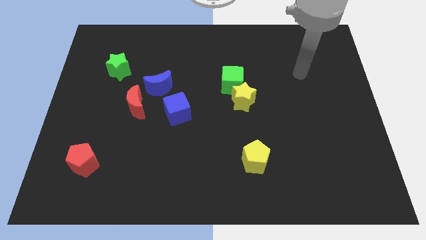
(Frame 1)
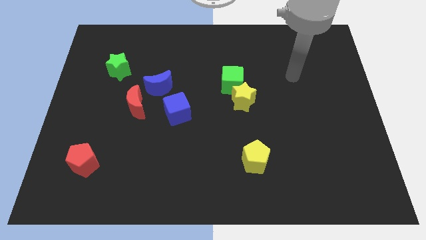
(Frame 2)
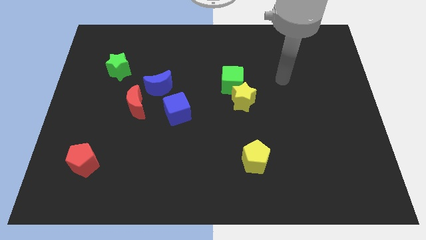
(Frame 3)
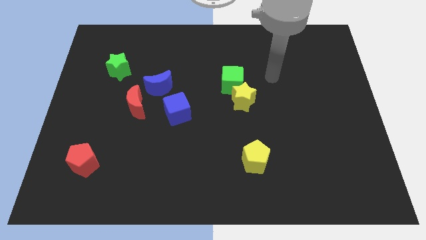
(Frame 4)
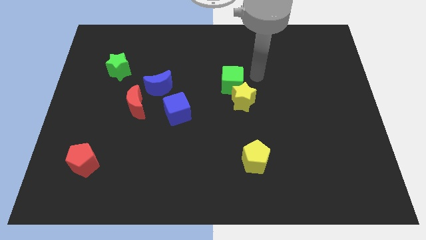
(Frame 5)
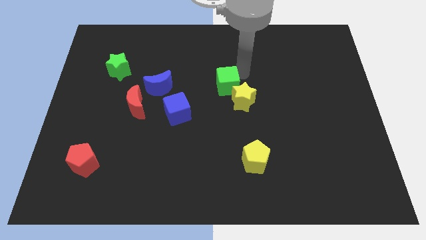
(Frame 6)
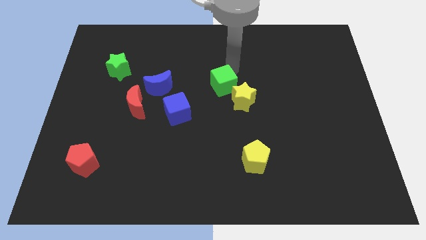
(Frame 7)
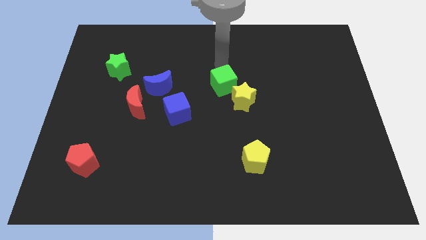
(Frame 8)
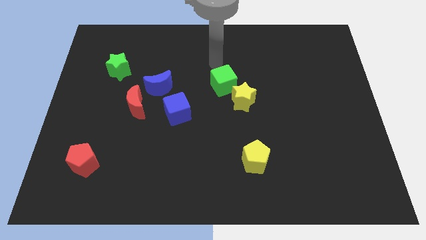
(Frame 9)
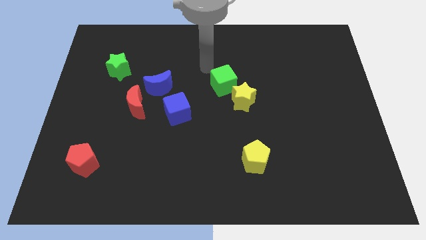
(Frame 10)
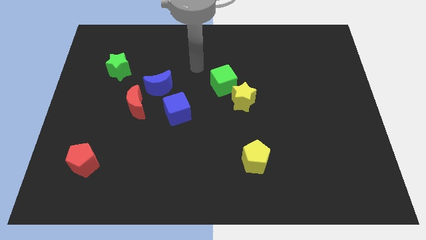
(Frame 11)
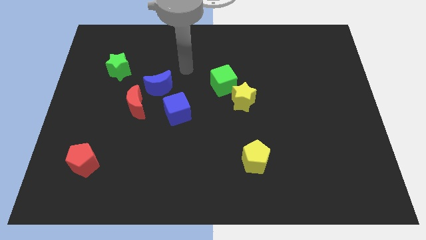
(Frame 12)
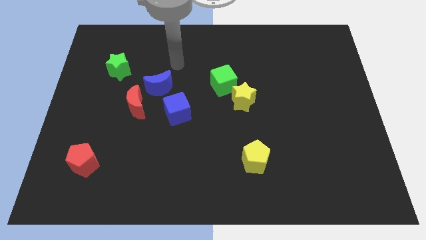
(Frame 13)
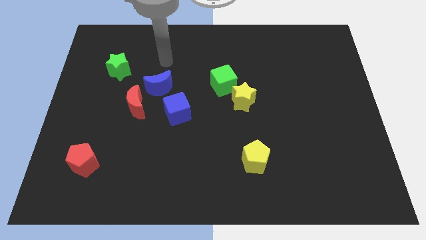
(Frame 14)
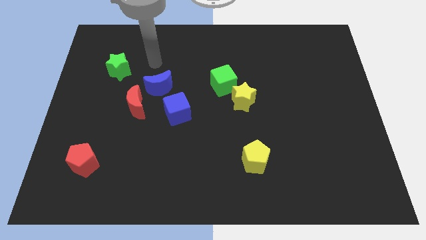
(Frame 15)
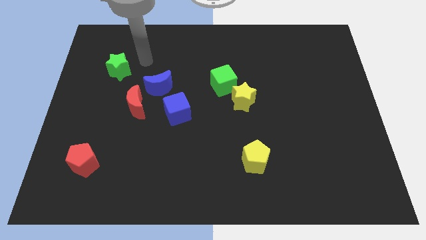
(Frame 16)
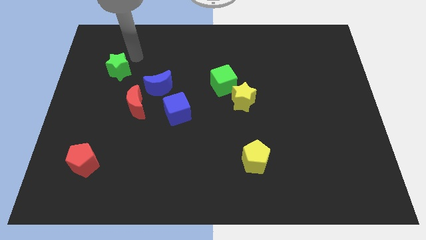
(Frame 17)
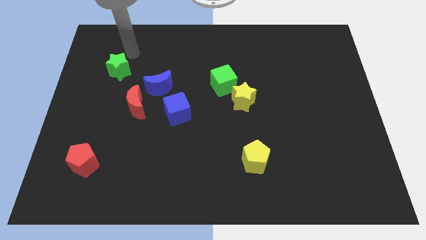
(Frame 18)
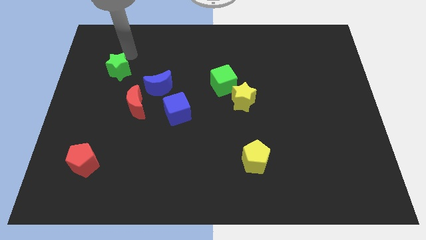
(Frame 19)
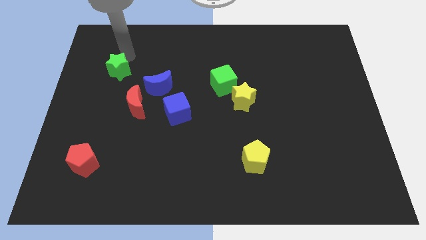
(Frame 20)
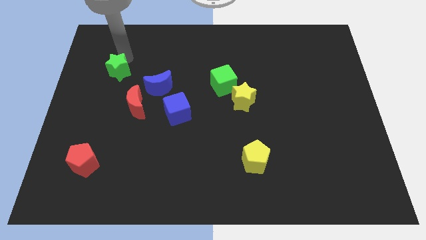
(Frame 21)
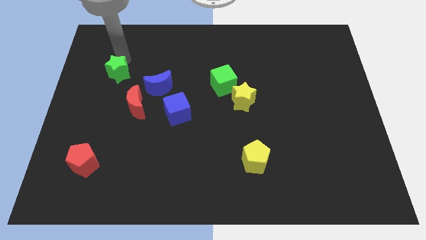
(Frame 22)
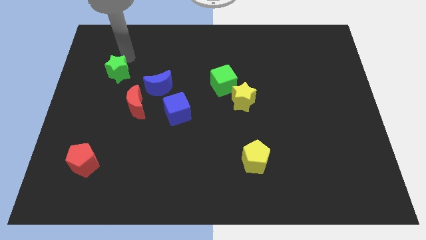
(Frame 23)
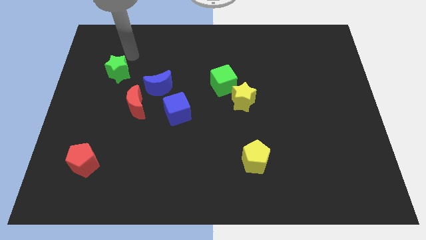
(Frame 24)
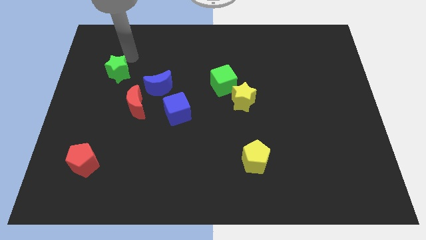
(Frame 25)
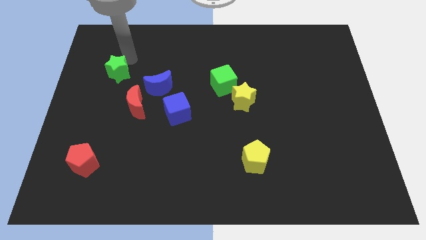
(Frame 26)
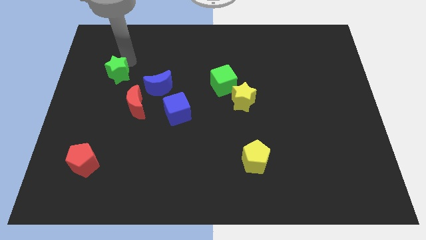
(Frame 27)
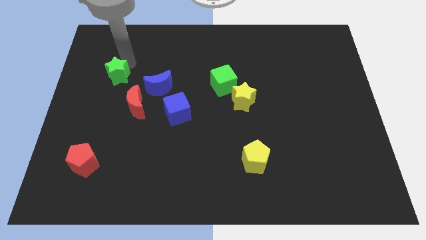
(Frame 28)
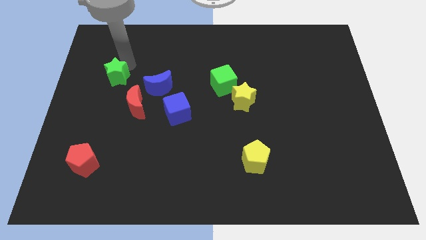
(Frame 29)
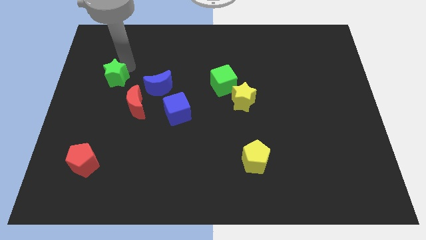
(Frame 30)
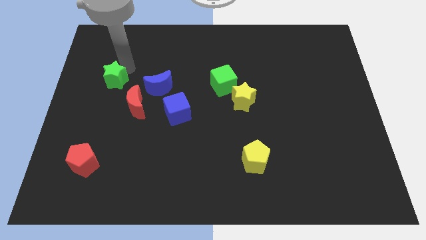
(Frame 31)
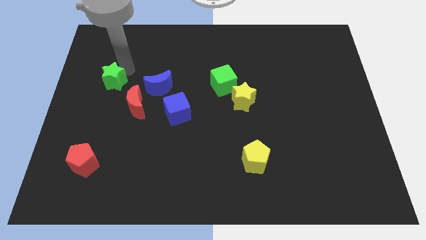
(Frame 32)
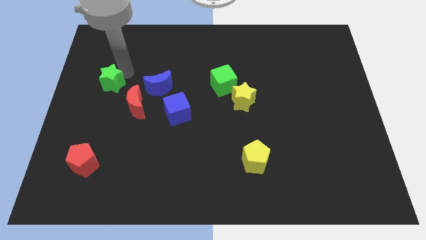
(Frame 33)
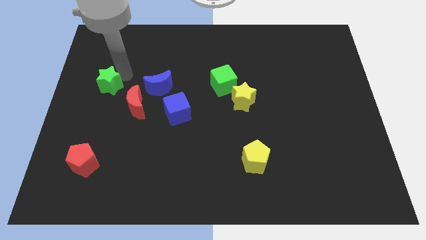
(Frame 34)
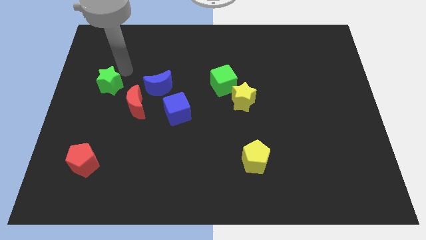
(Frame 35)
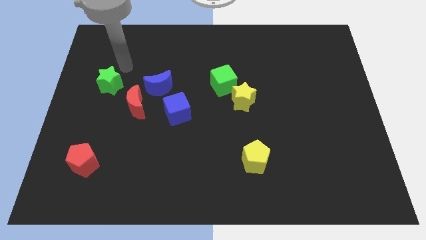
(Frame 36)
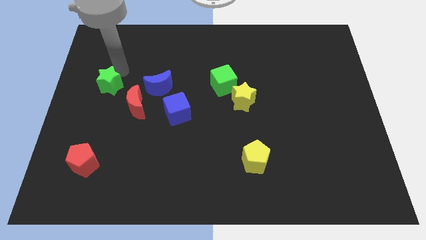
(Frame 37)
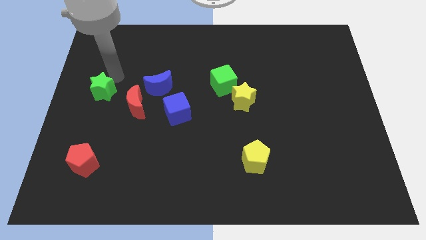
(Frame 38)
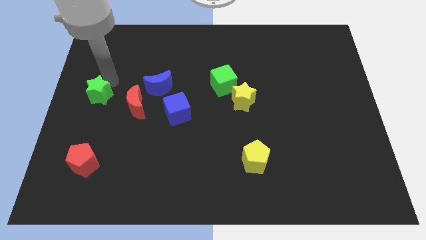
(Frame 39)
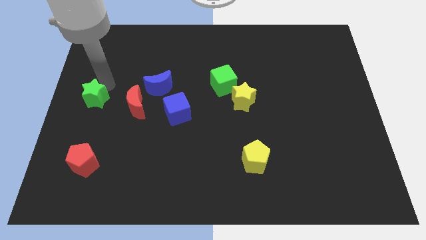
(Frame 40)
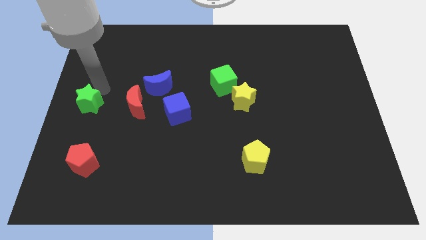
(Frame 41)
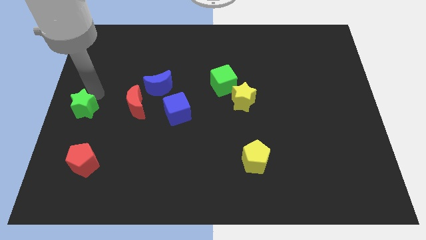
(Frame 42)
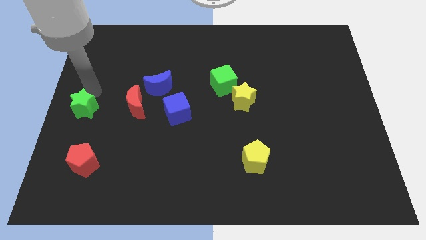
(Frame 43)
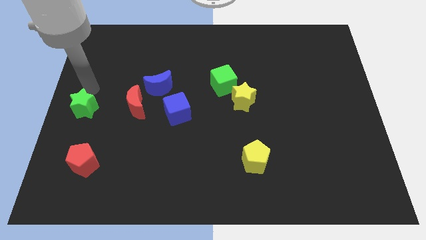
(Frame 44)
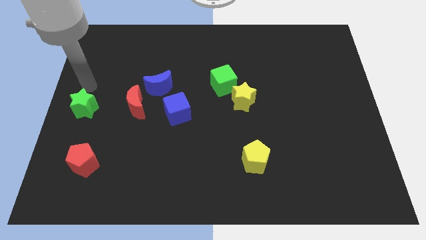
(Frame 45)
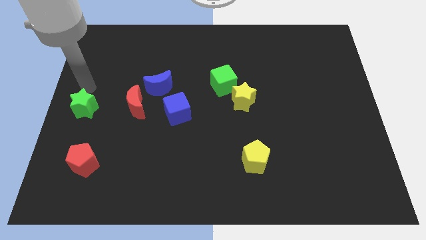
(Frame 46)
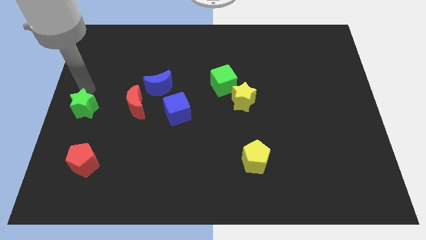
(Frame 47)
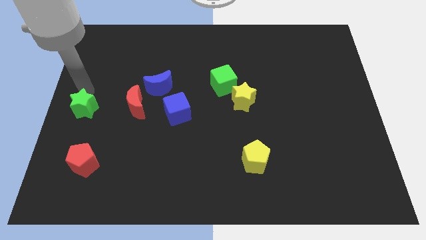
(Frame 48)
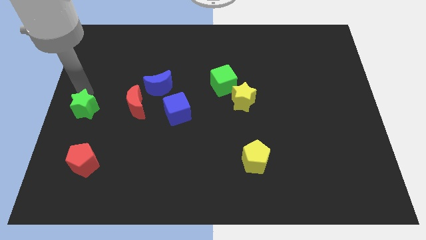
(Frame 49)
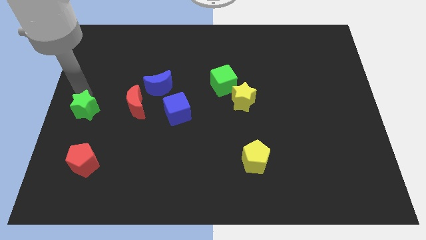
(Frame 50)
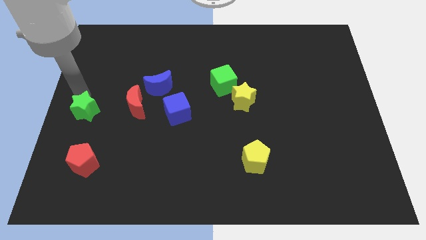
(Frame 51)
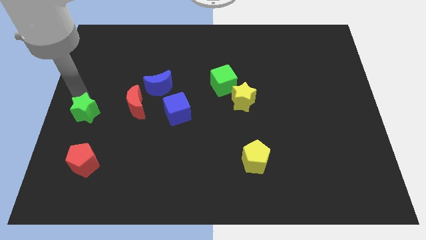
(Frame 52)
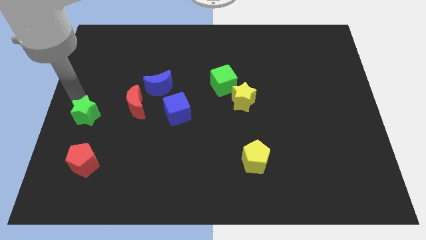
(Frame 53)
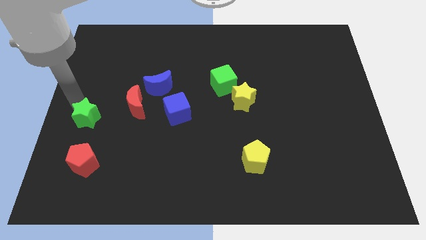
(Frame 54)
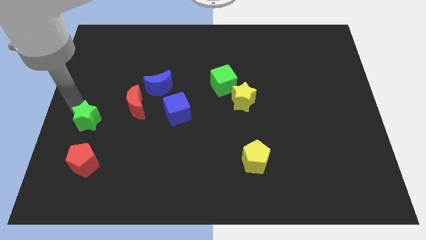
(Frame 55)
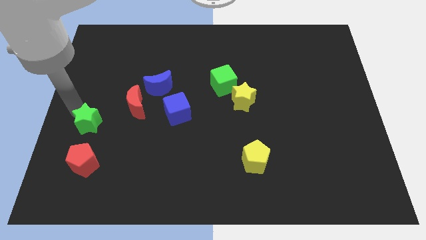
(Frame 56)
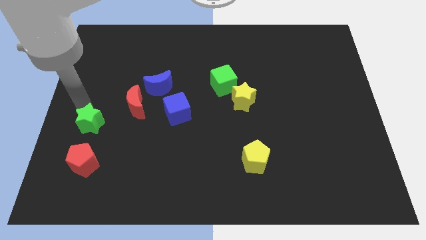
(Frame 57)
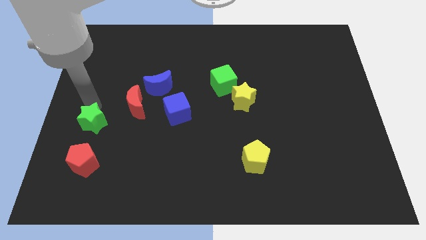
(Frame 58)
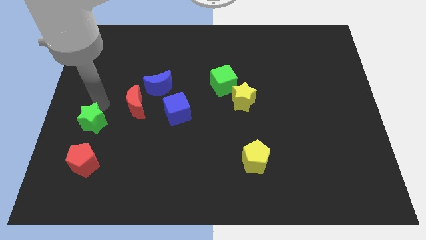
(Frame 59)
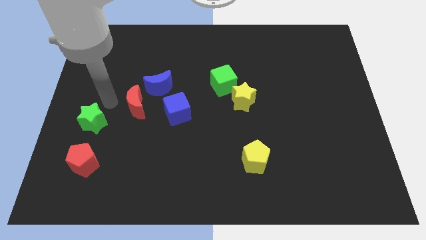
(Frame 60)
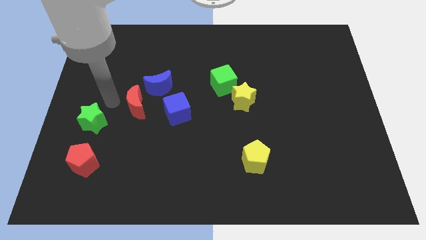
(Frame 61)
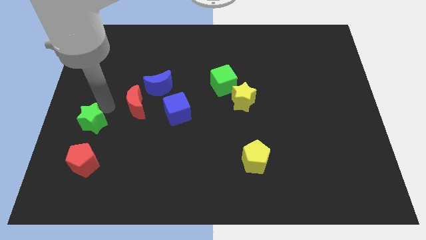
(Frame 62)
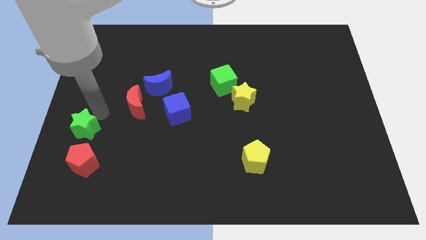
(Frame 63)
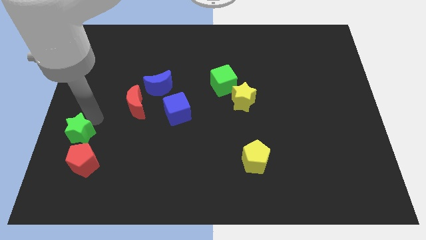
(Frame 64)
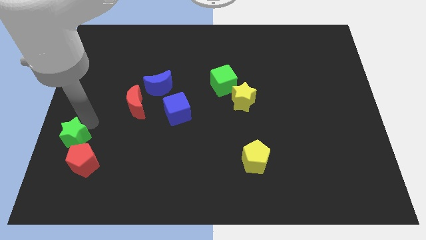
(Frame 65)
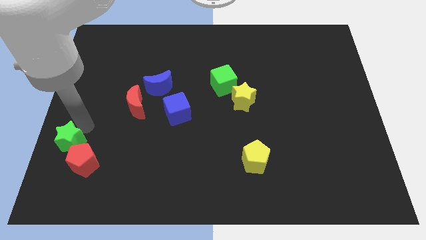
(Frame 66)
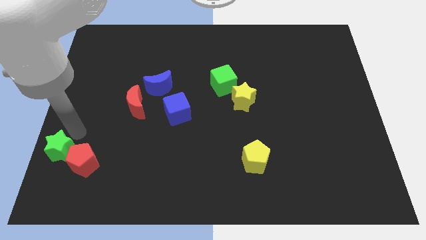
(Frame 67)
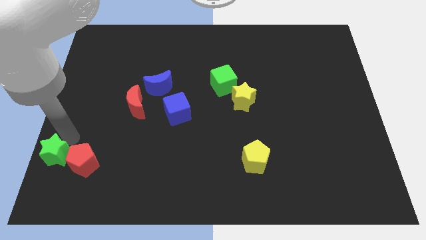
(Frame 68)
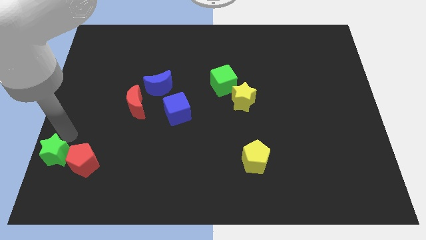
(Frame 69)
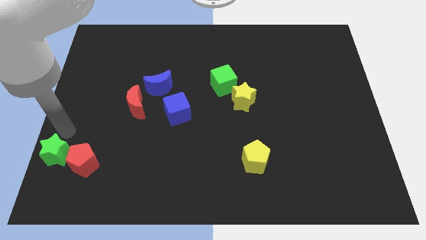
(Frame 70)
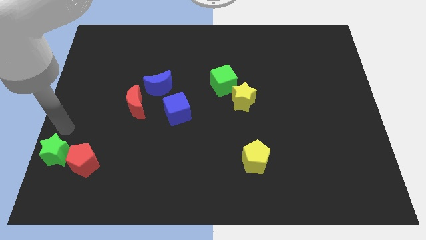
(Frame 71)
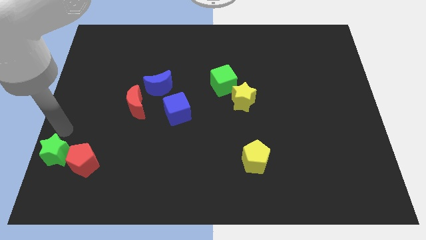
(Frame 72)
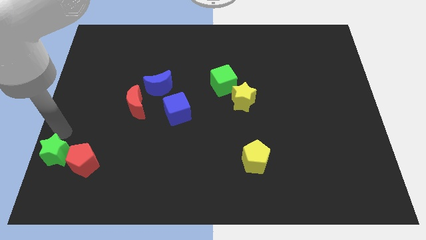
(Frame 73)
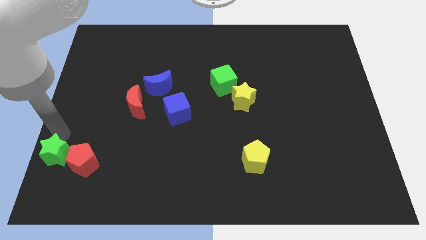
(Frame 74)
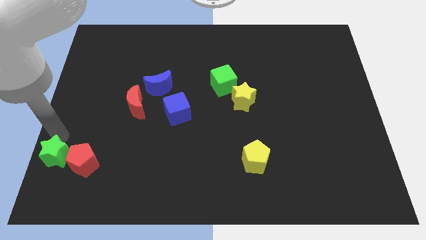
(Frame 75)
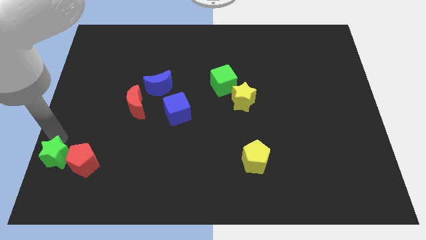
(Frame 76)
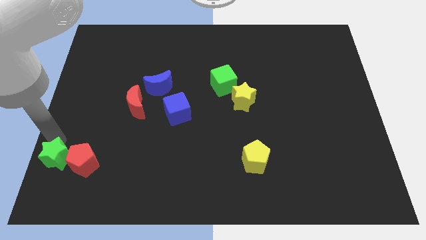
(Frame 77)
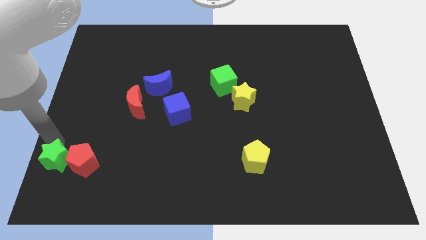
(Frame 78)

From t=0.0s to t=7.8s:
put the green star to the bottom left of the board
